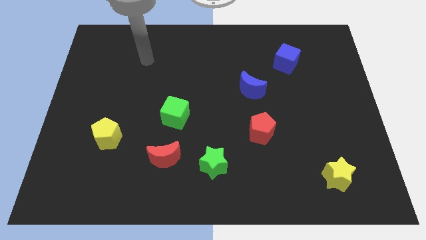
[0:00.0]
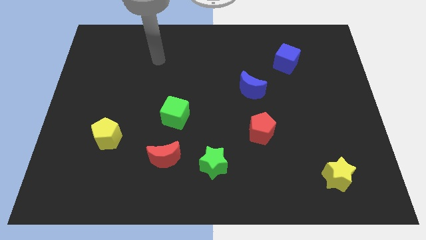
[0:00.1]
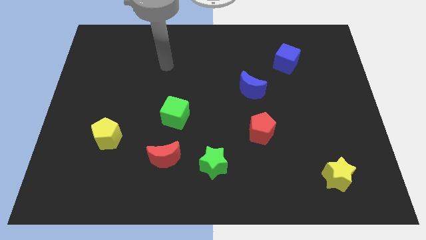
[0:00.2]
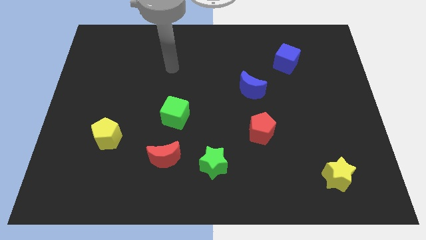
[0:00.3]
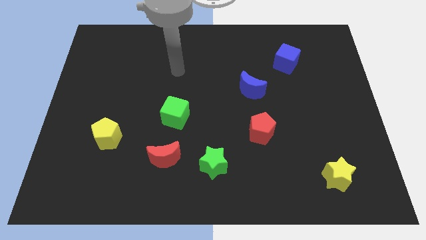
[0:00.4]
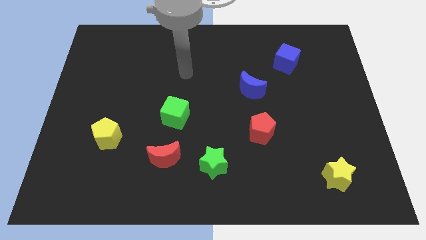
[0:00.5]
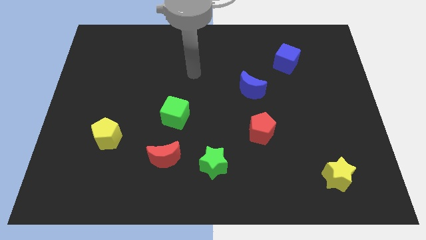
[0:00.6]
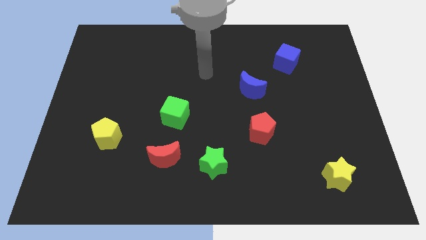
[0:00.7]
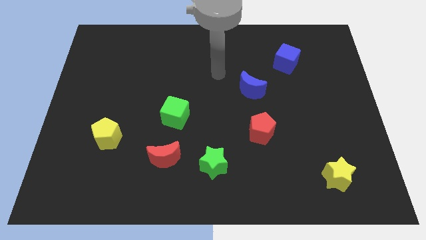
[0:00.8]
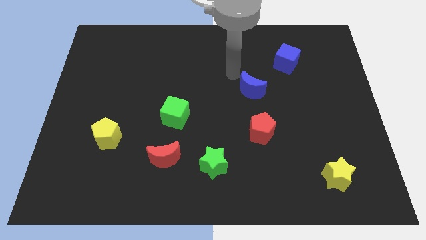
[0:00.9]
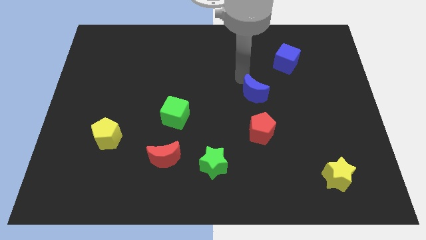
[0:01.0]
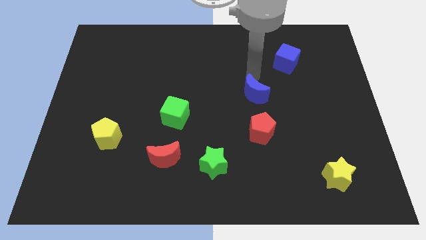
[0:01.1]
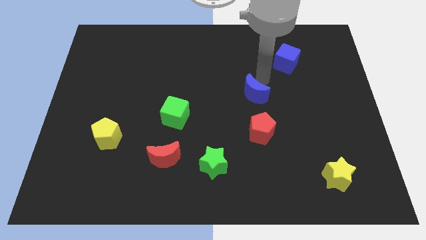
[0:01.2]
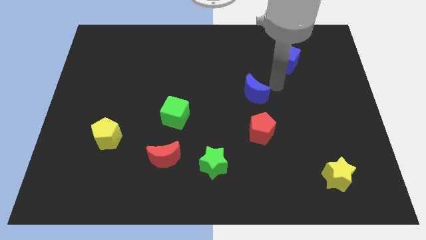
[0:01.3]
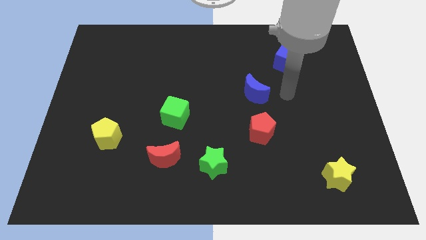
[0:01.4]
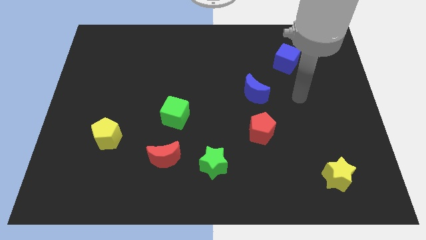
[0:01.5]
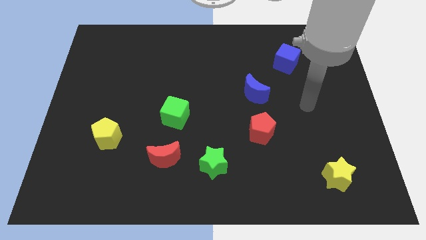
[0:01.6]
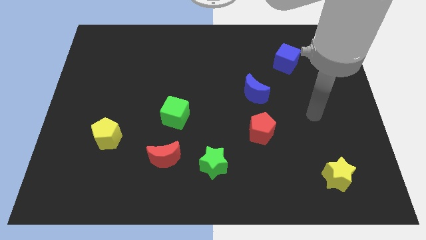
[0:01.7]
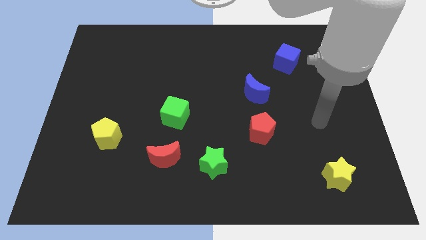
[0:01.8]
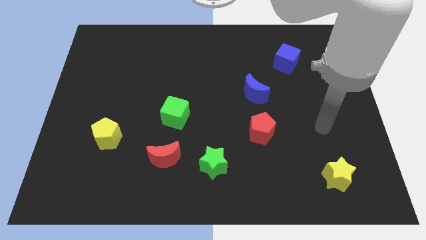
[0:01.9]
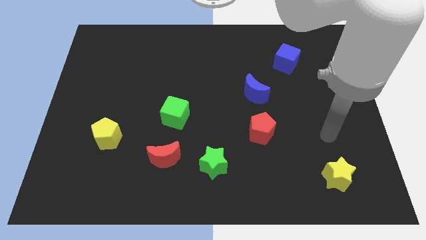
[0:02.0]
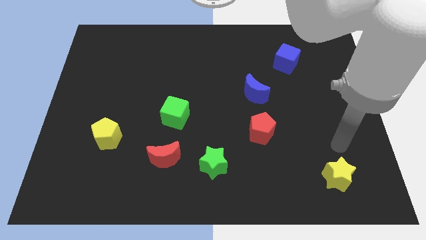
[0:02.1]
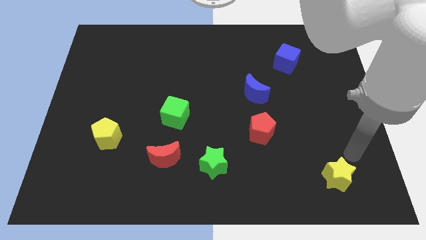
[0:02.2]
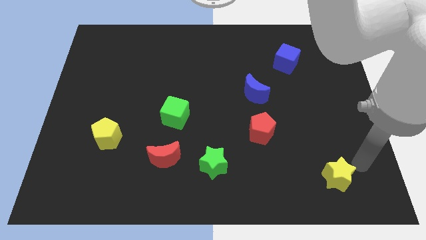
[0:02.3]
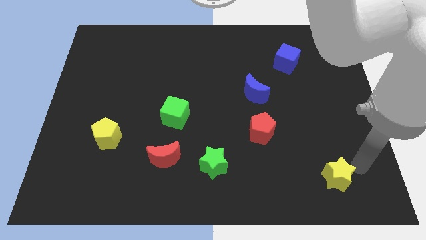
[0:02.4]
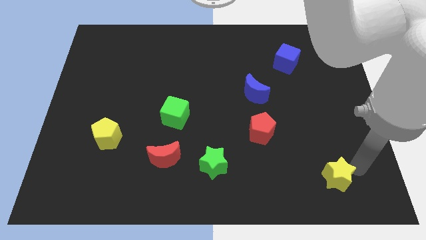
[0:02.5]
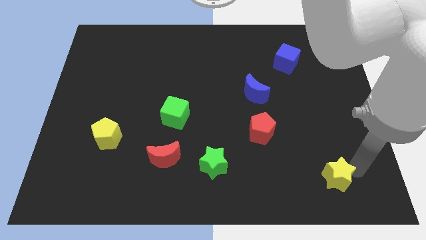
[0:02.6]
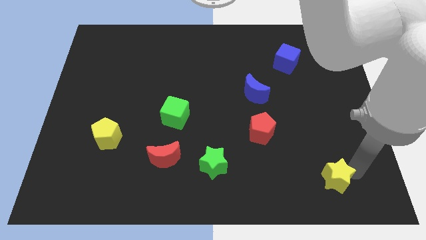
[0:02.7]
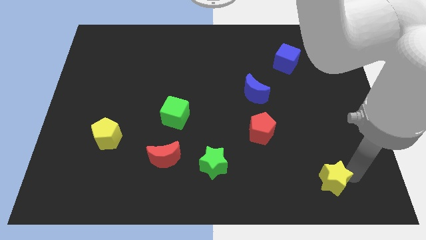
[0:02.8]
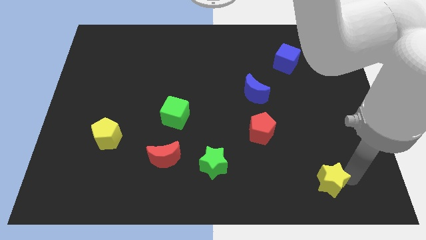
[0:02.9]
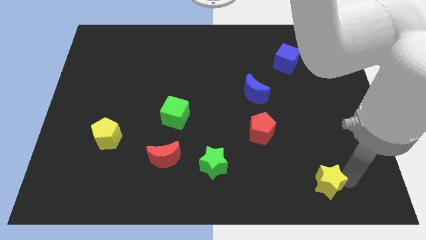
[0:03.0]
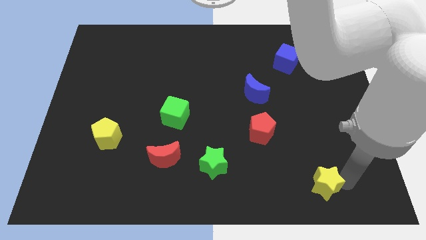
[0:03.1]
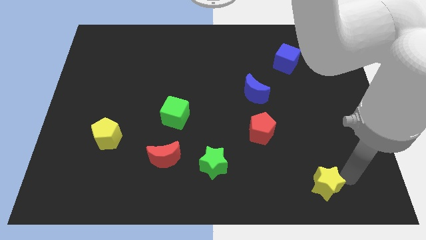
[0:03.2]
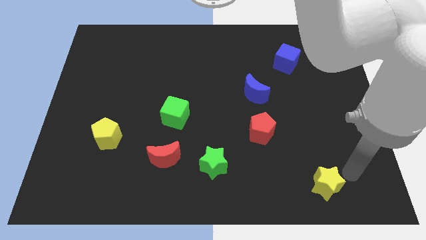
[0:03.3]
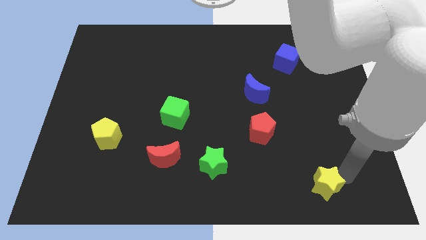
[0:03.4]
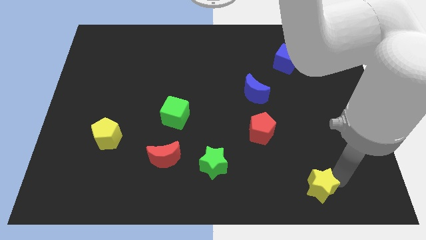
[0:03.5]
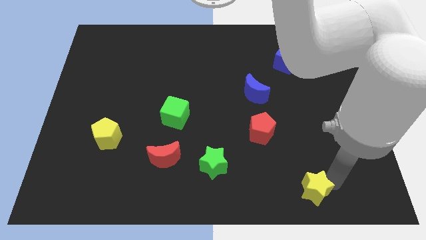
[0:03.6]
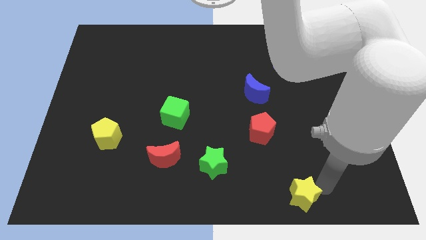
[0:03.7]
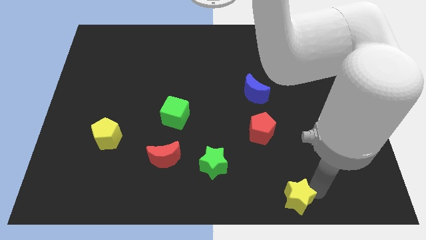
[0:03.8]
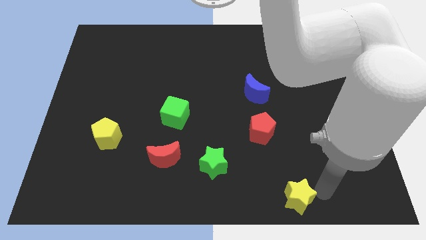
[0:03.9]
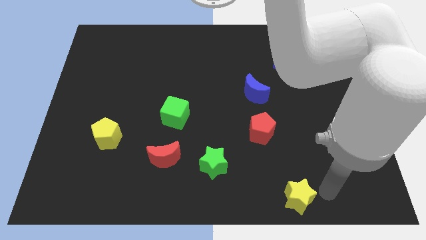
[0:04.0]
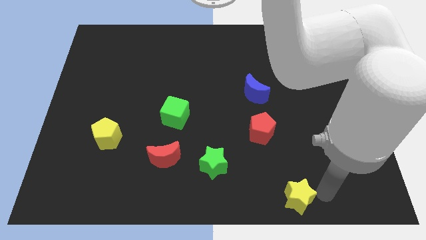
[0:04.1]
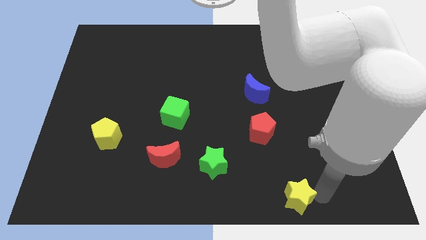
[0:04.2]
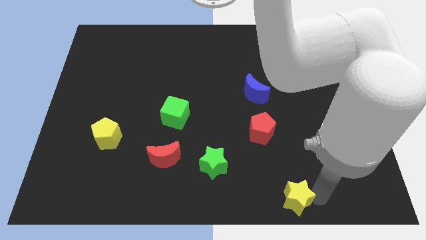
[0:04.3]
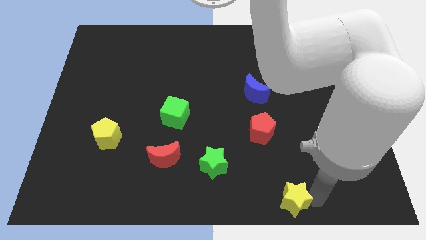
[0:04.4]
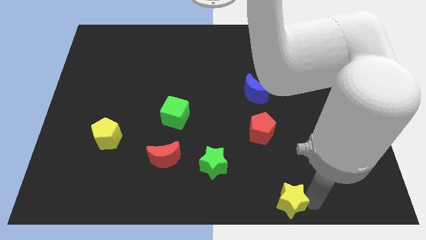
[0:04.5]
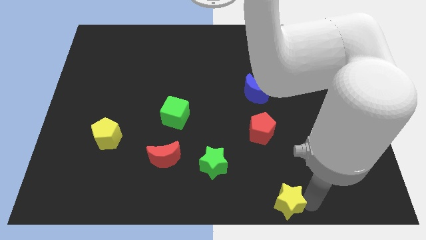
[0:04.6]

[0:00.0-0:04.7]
push the yellow star to the bottom

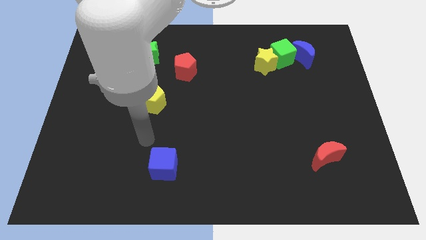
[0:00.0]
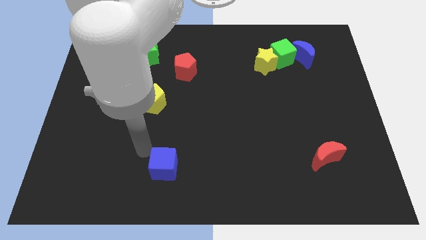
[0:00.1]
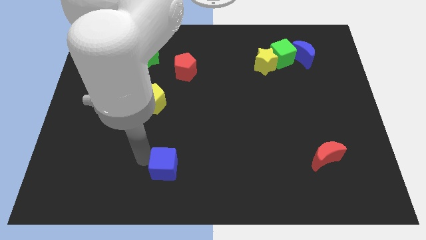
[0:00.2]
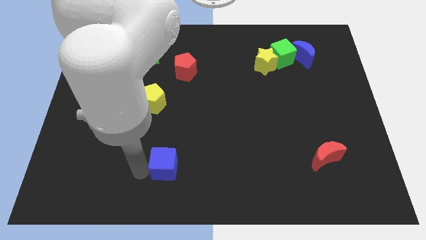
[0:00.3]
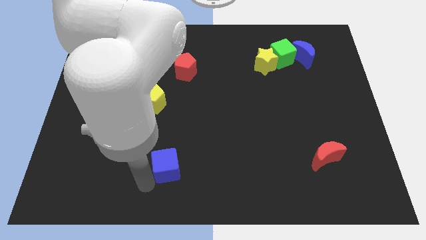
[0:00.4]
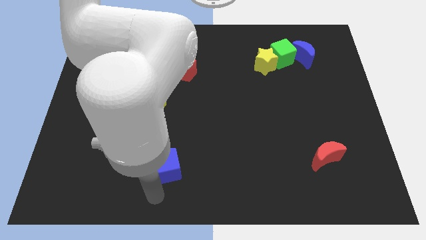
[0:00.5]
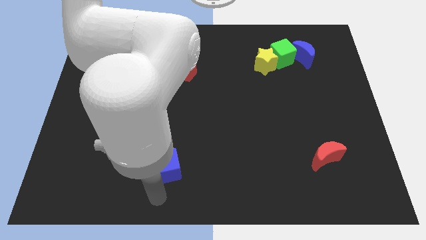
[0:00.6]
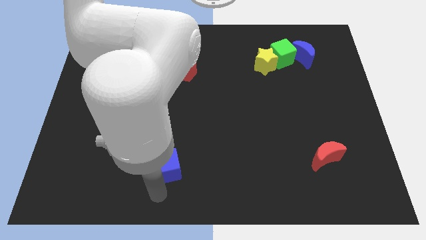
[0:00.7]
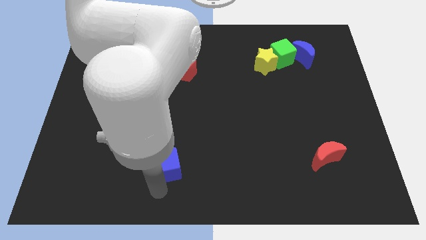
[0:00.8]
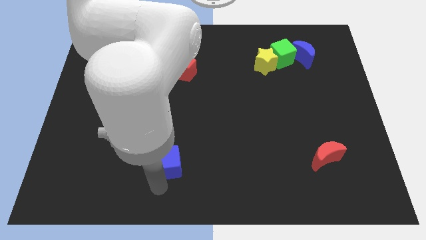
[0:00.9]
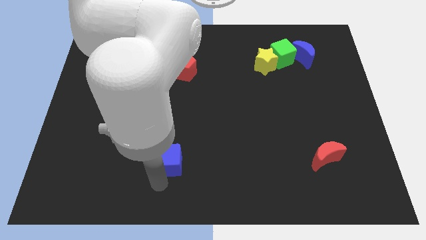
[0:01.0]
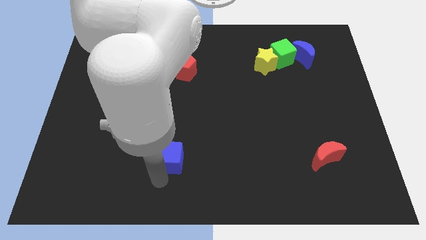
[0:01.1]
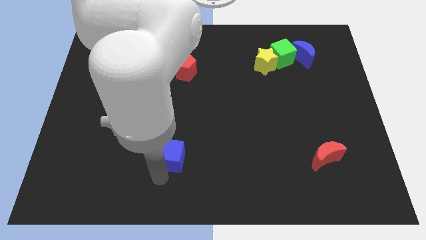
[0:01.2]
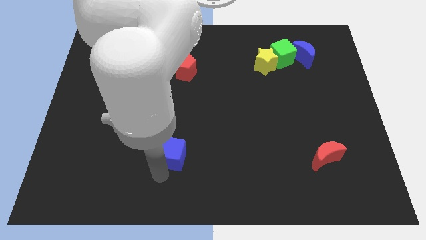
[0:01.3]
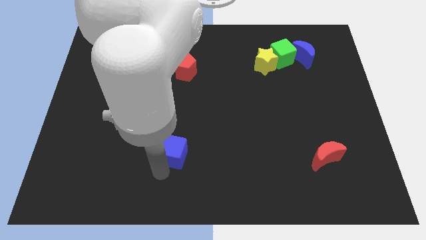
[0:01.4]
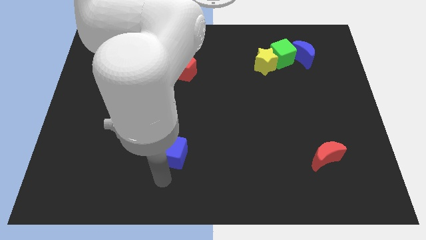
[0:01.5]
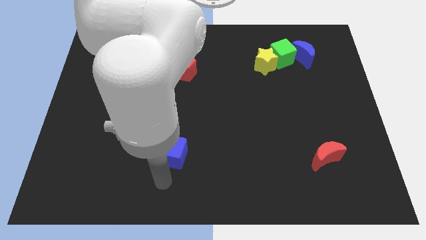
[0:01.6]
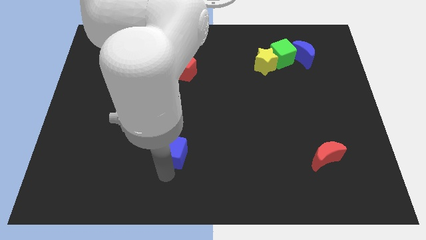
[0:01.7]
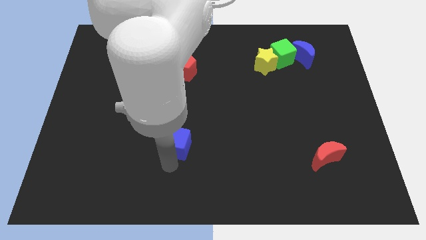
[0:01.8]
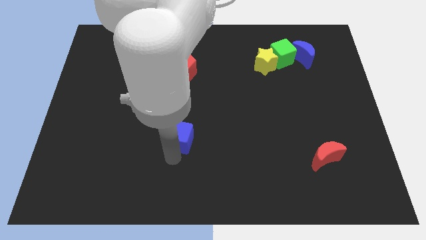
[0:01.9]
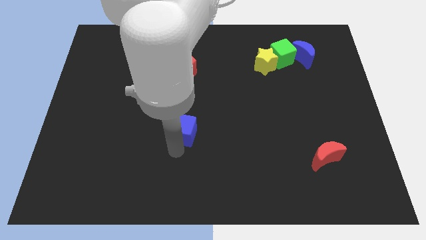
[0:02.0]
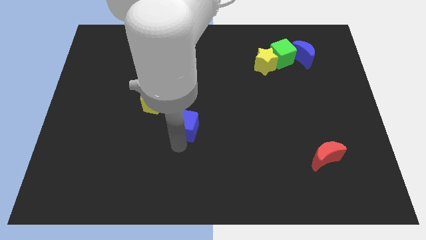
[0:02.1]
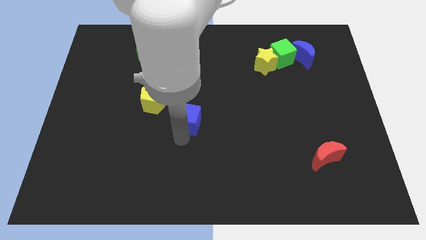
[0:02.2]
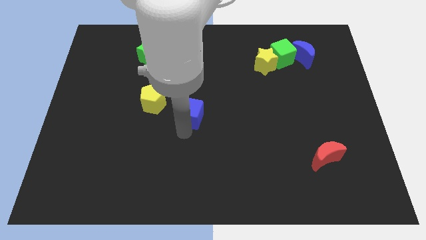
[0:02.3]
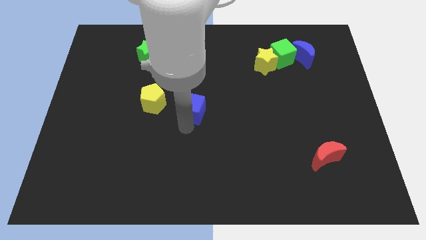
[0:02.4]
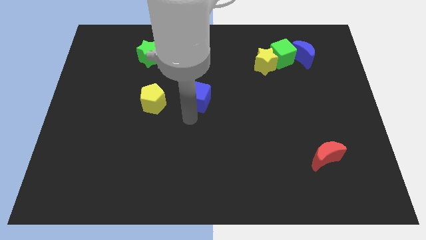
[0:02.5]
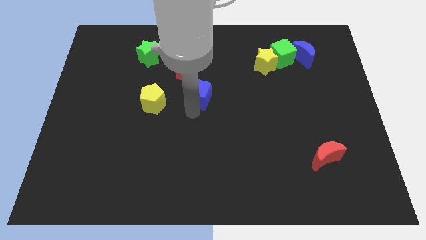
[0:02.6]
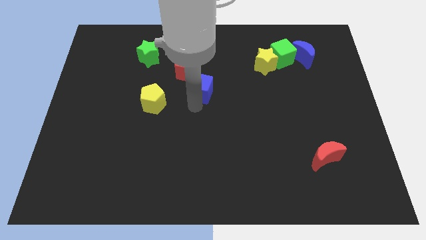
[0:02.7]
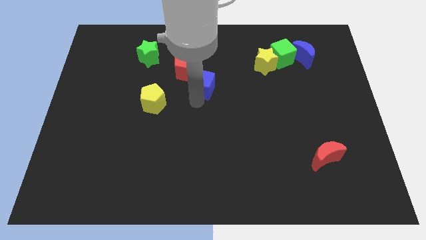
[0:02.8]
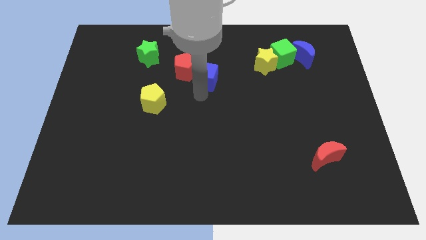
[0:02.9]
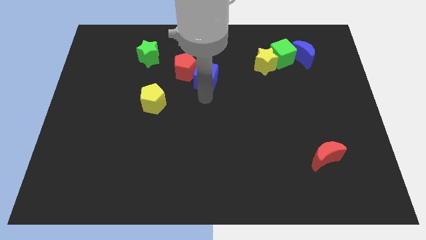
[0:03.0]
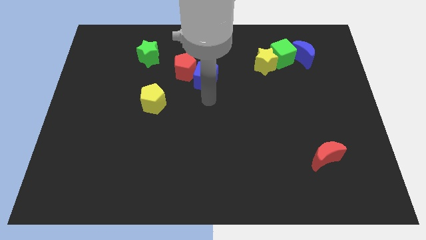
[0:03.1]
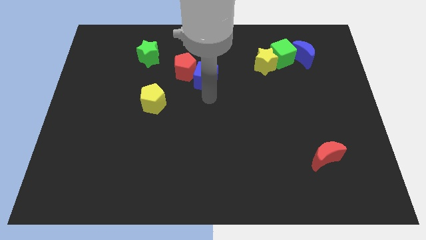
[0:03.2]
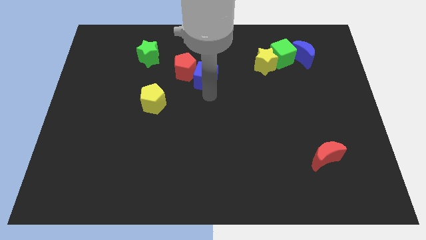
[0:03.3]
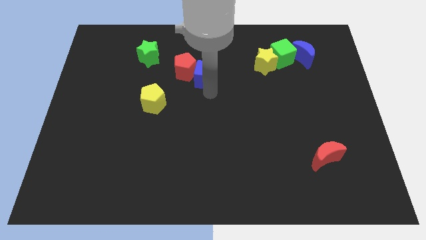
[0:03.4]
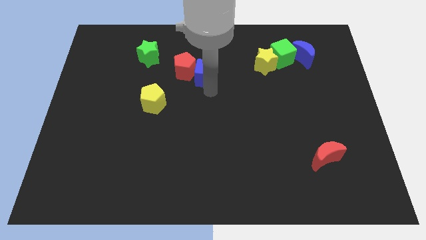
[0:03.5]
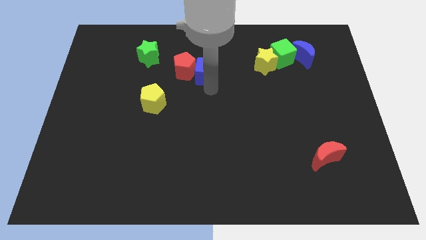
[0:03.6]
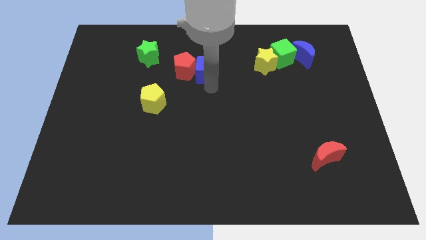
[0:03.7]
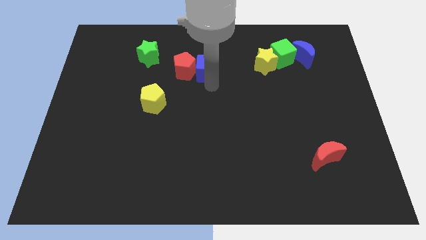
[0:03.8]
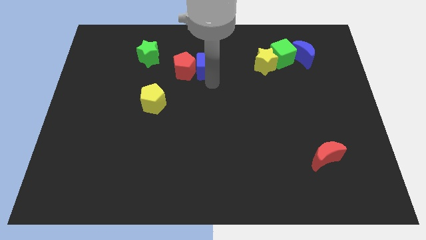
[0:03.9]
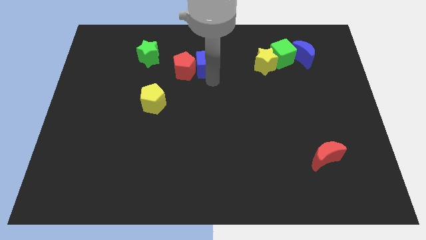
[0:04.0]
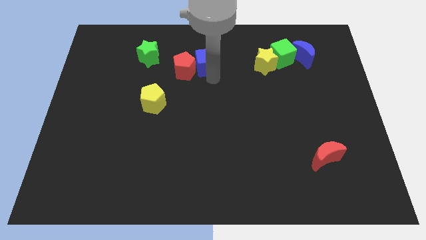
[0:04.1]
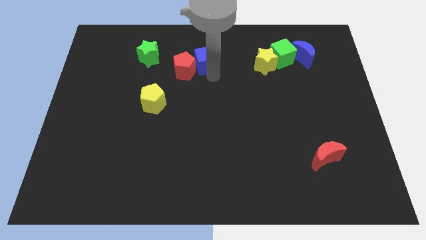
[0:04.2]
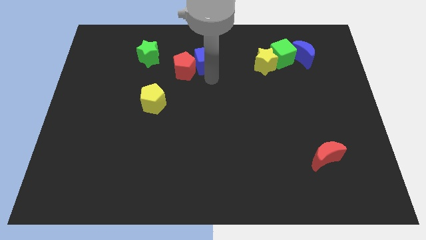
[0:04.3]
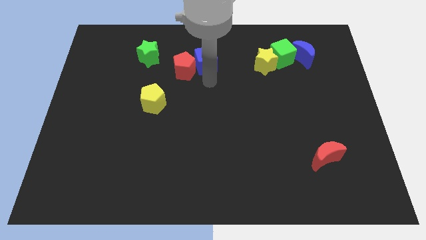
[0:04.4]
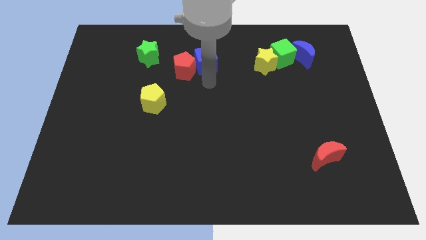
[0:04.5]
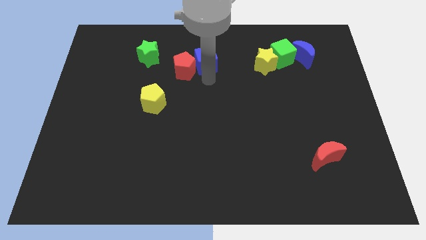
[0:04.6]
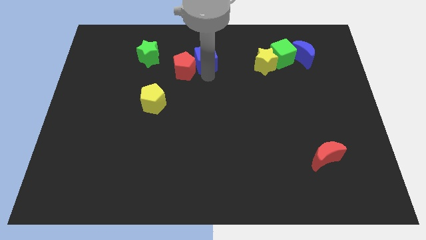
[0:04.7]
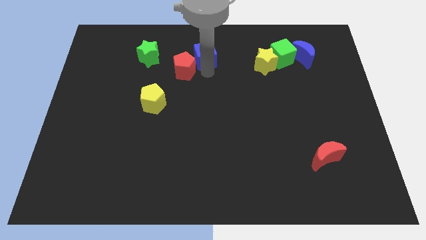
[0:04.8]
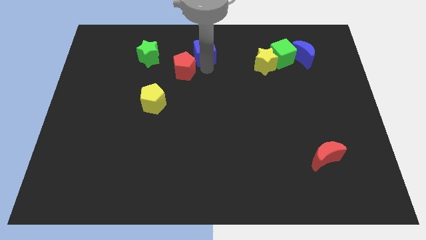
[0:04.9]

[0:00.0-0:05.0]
move the blue cube to the towards your base
